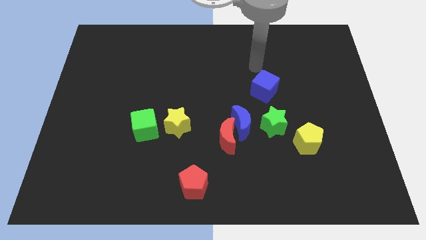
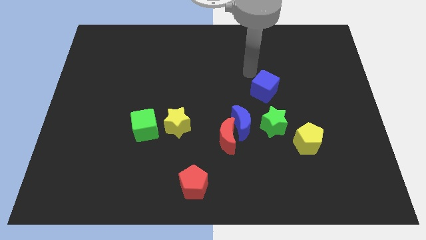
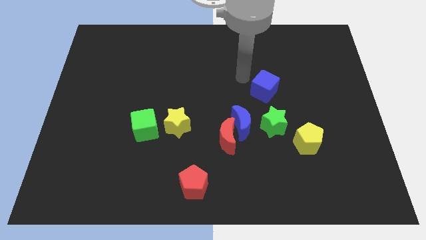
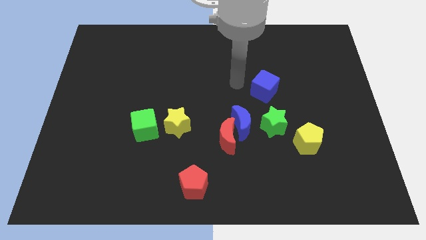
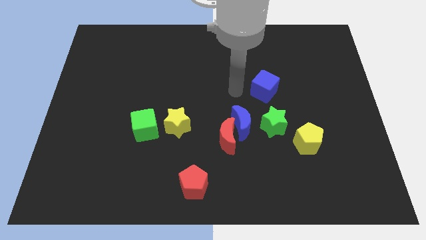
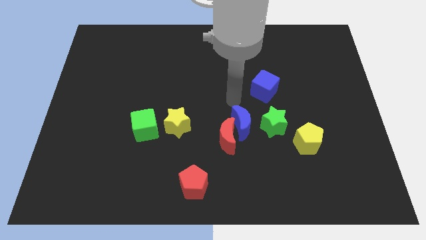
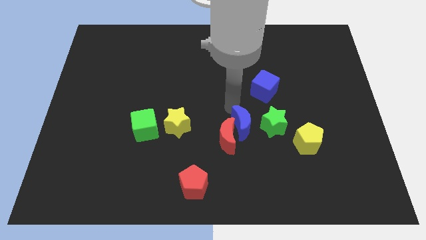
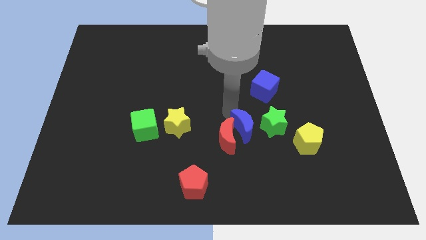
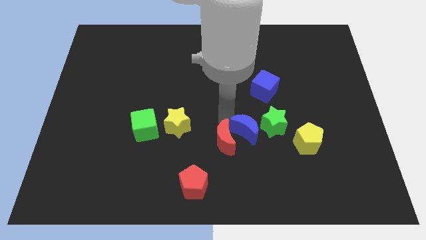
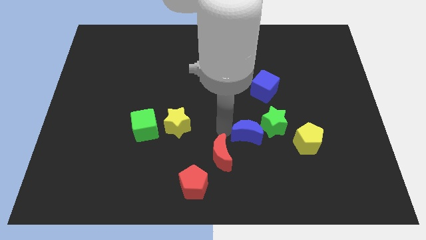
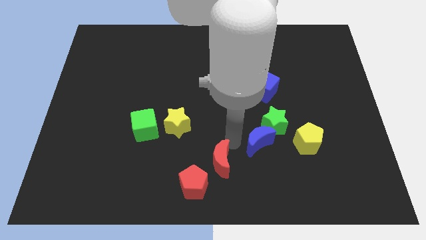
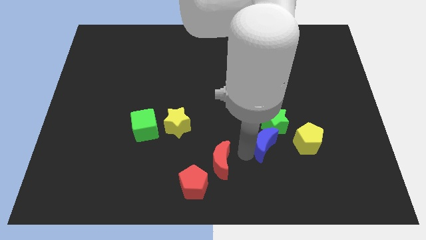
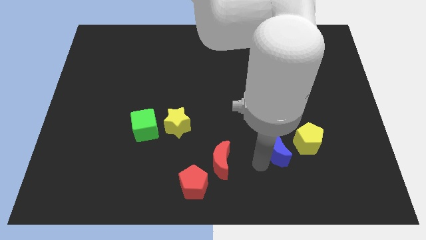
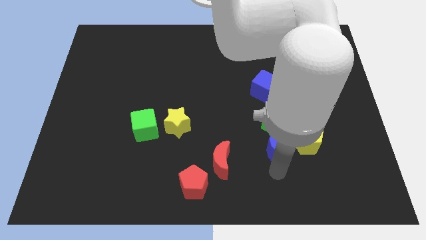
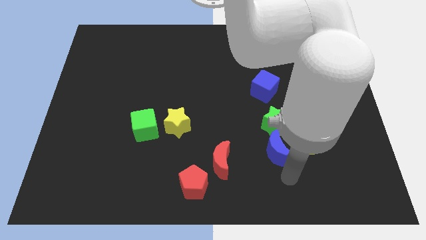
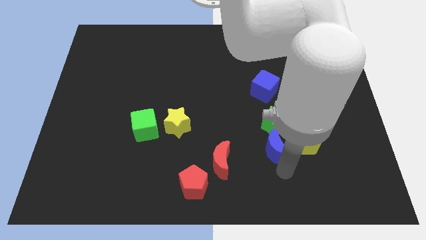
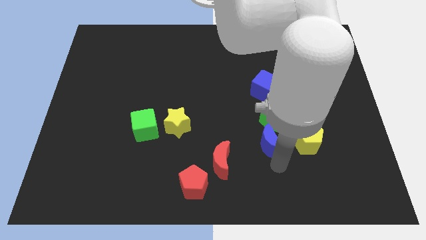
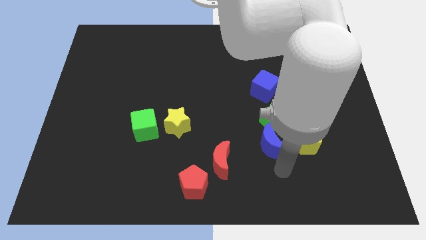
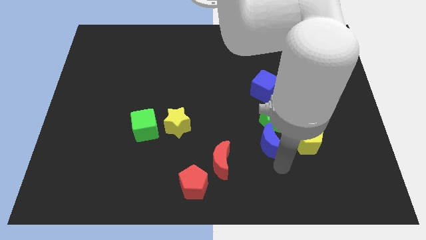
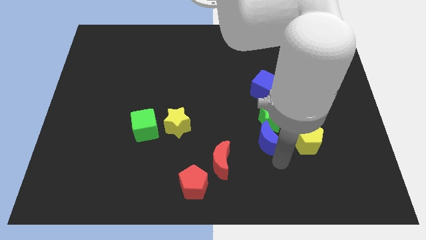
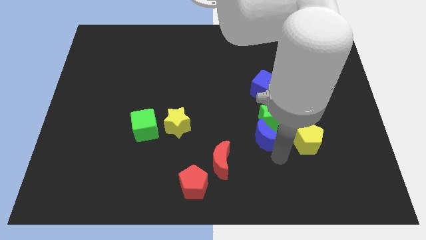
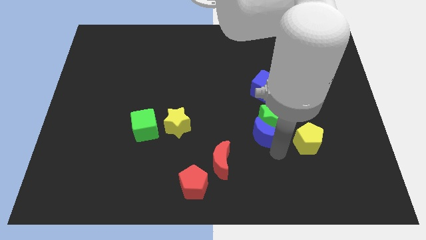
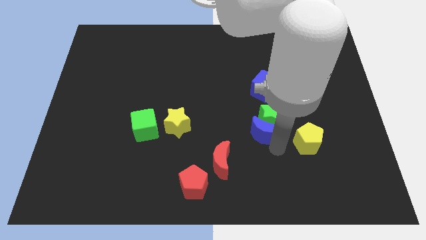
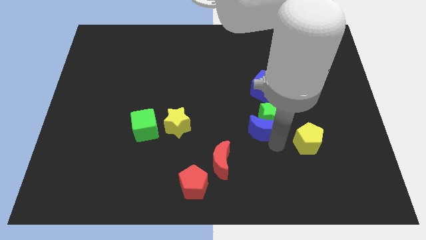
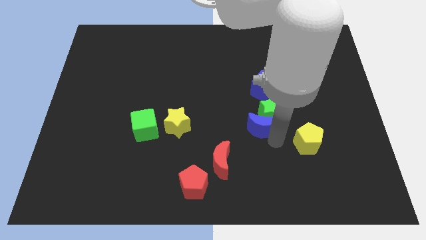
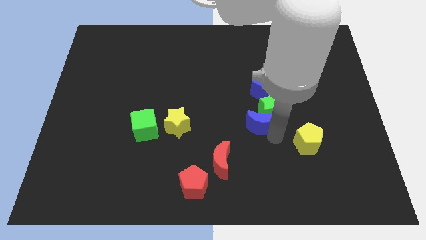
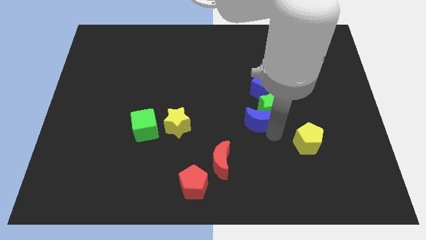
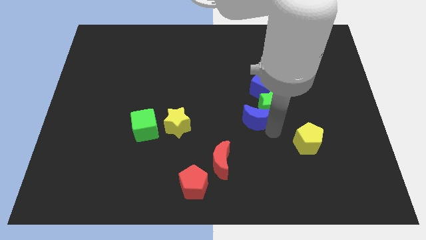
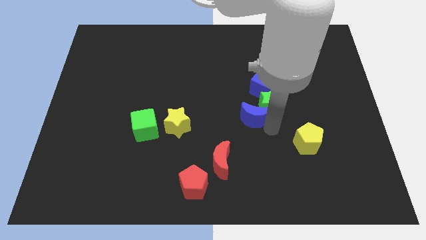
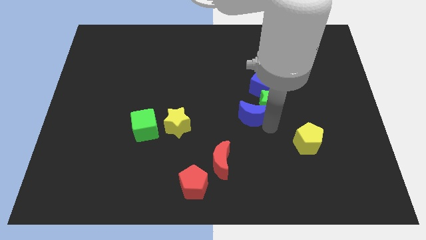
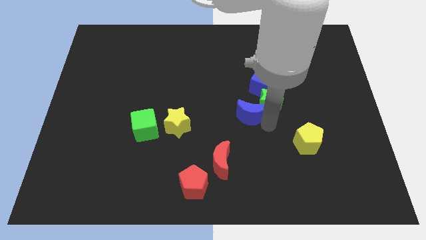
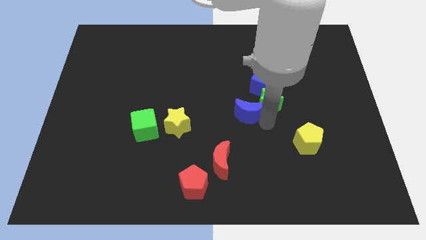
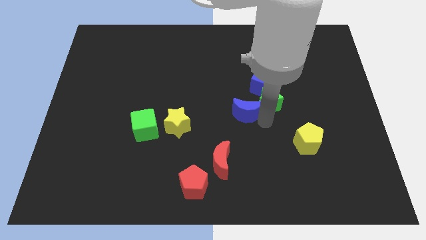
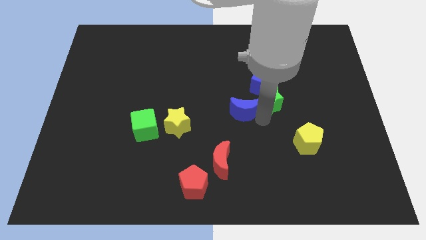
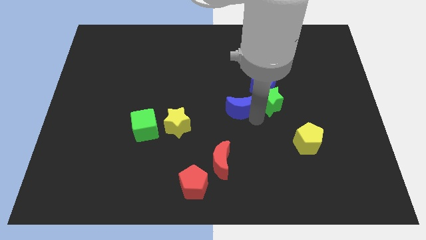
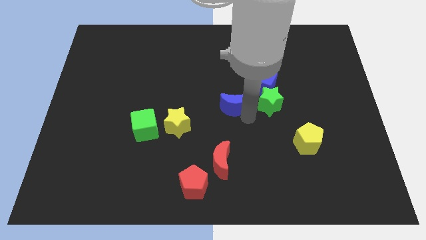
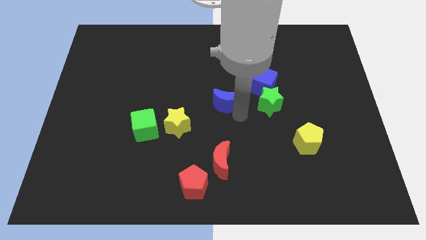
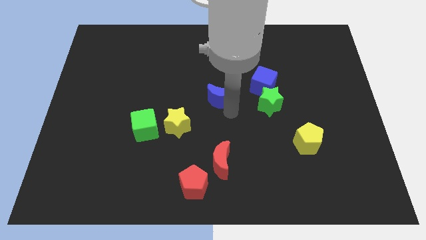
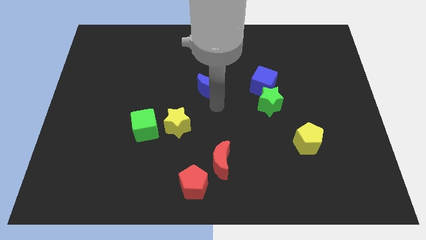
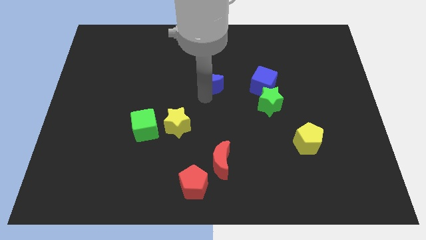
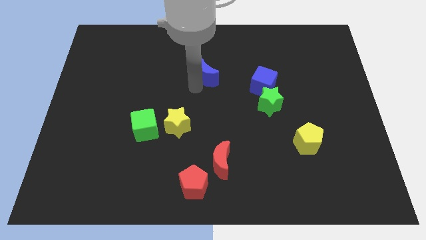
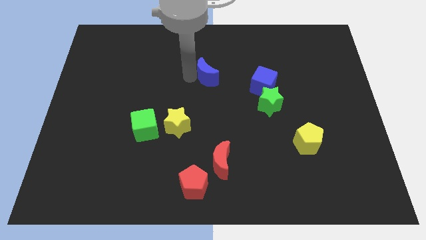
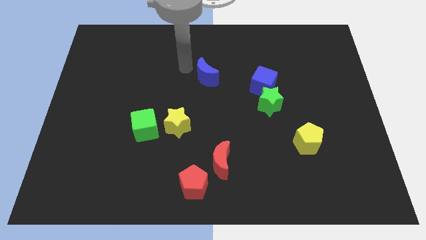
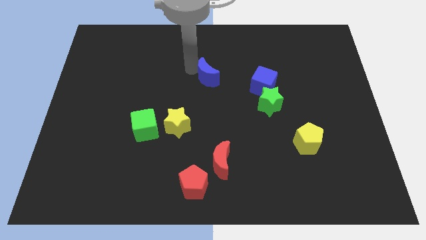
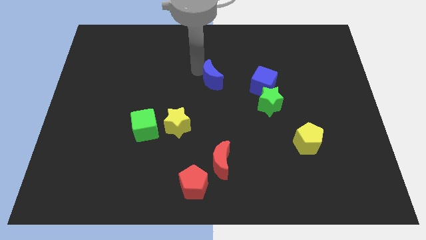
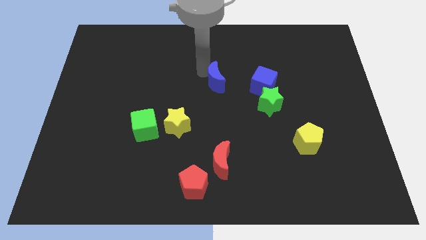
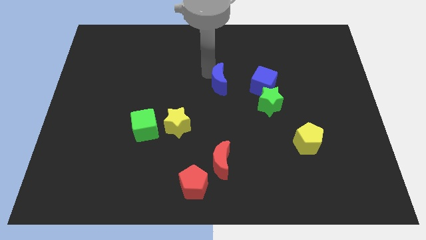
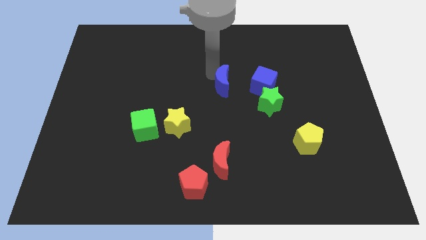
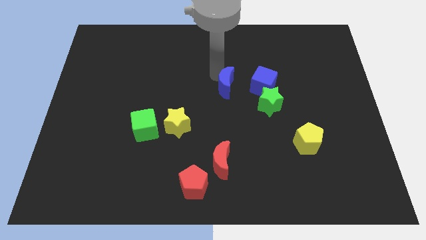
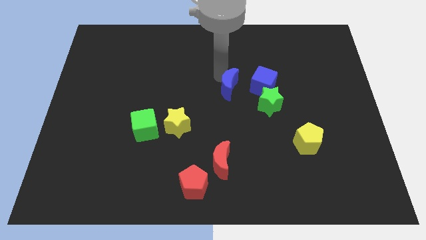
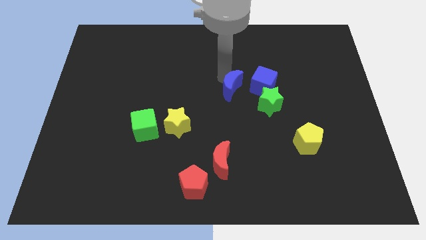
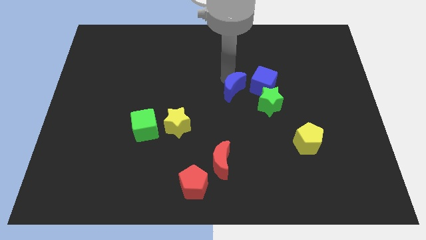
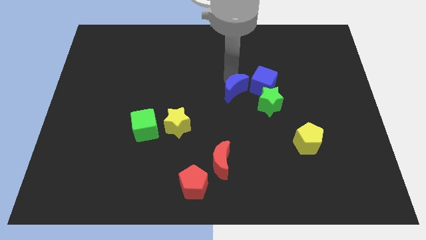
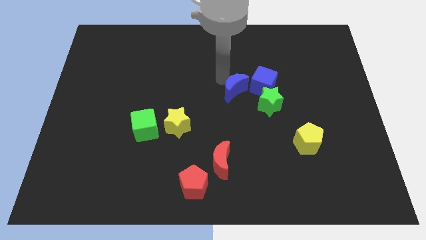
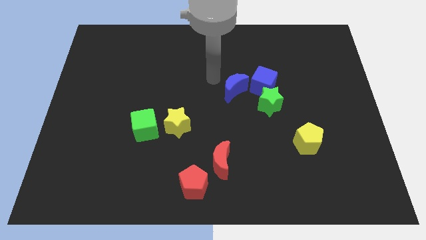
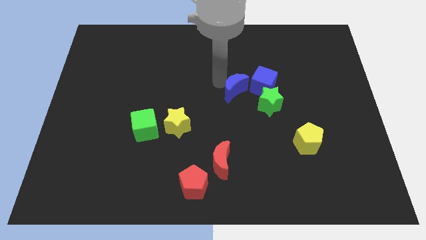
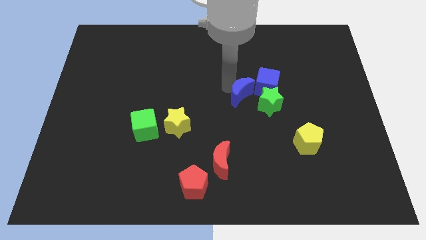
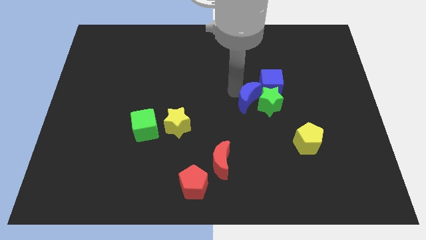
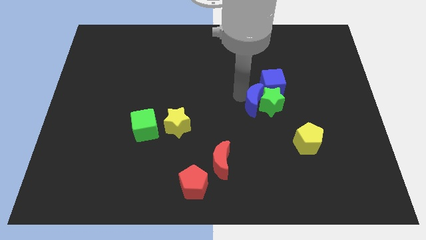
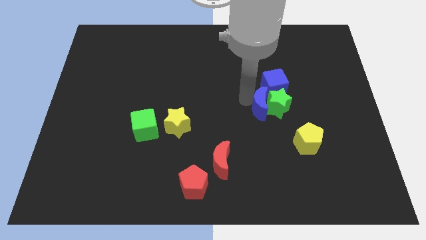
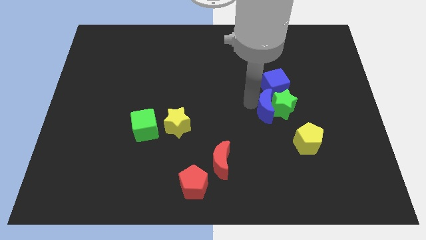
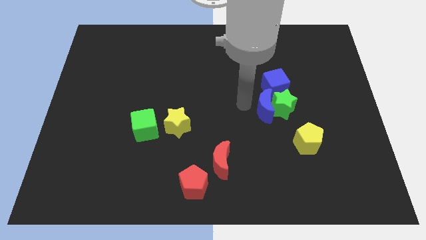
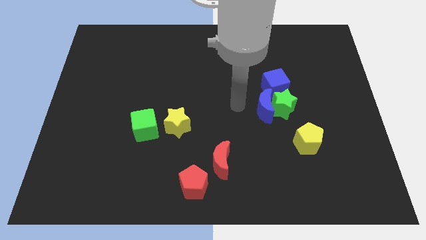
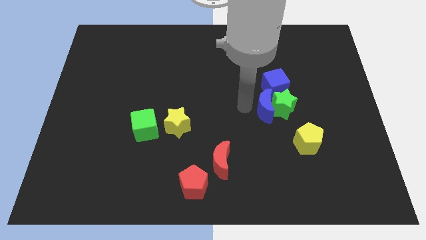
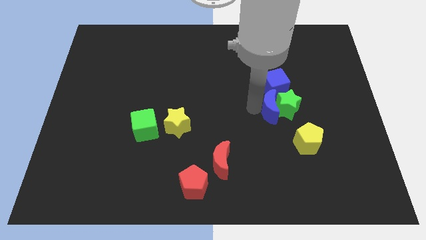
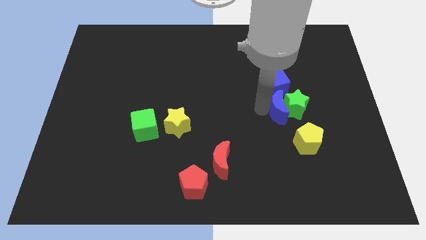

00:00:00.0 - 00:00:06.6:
slightly slide the blue moon to the right

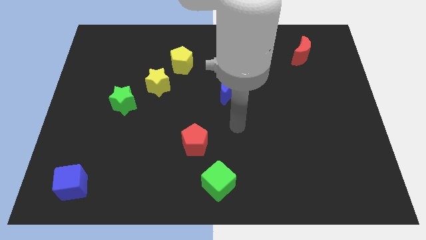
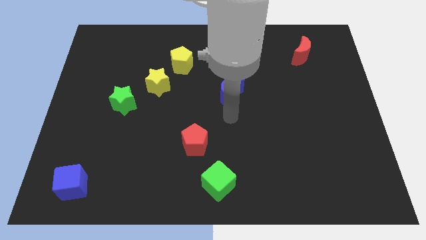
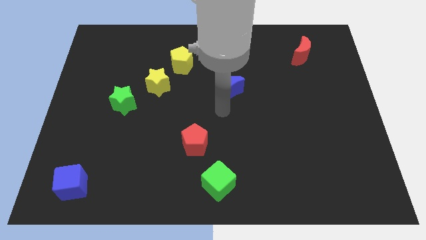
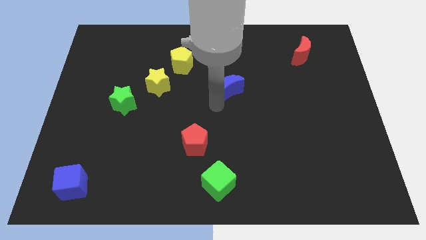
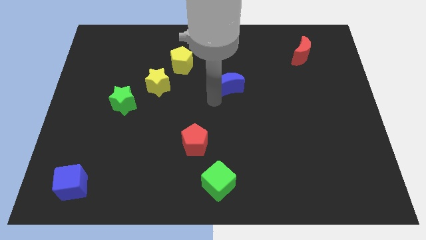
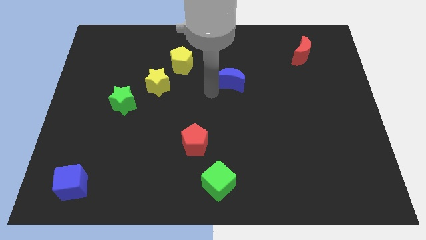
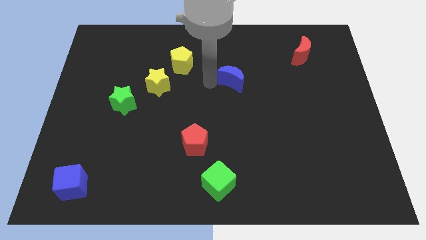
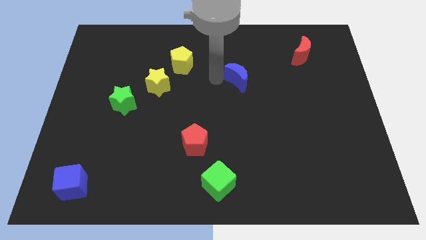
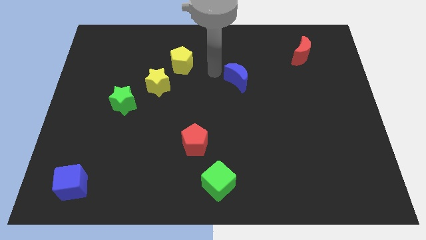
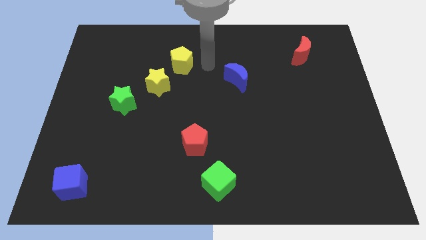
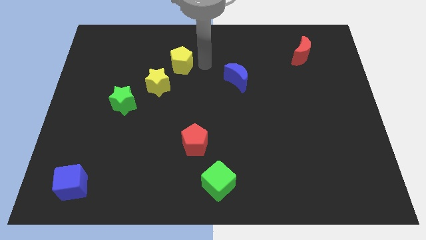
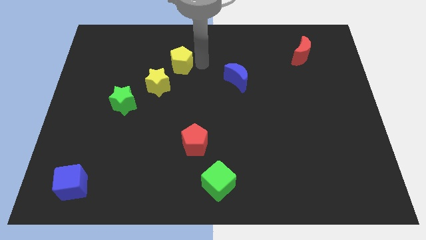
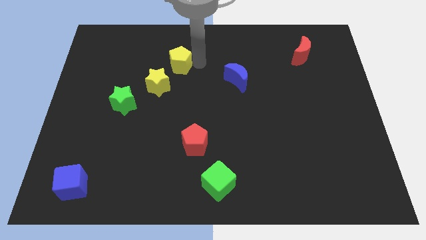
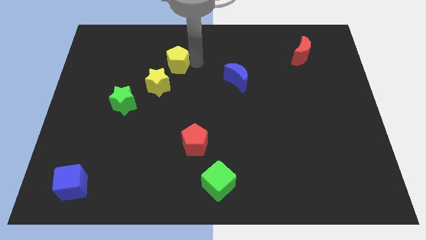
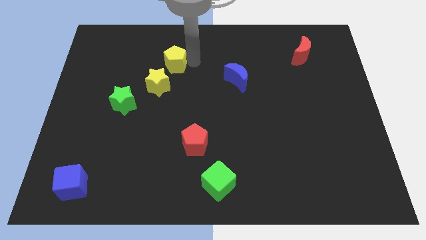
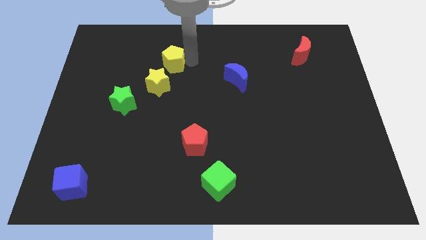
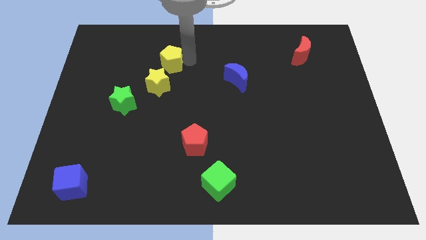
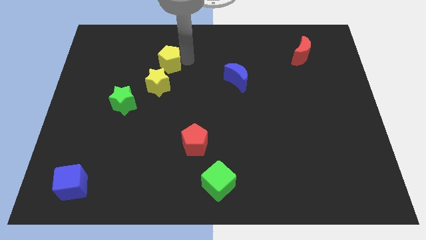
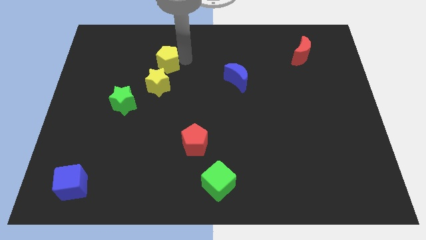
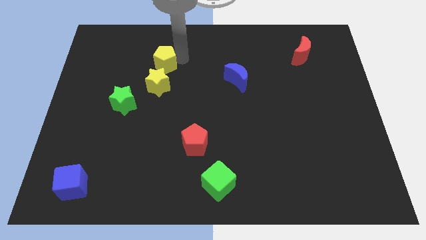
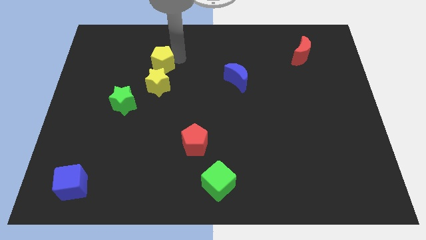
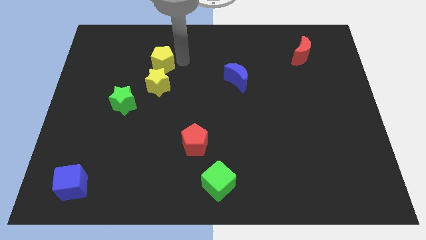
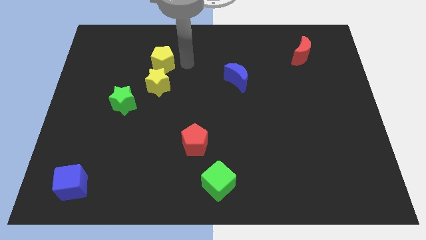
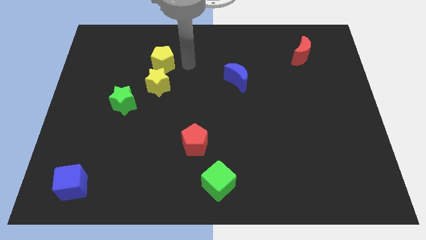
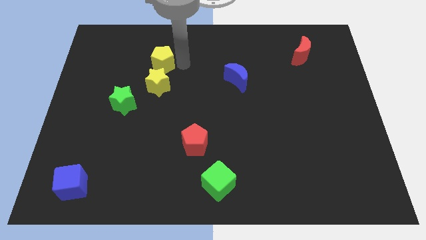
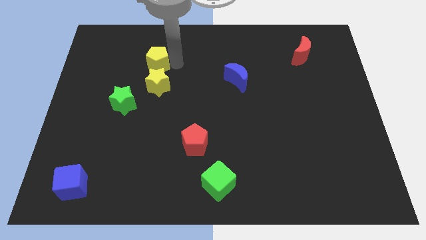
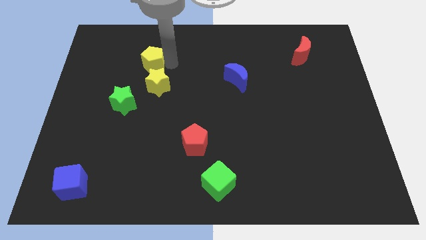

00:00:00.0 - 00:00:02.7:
slide the yellow pentagon a bit to the left
